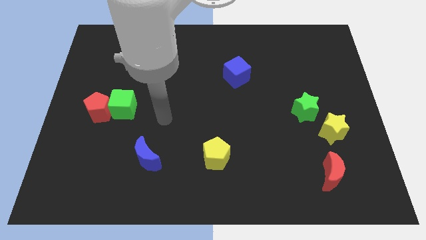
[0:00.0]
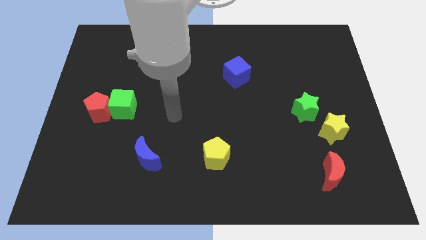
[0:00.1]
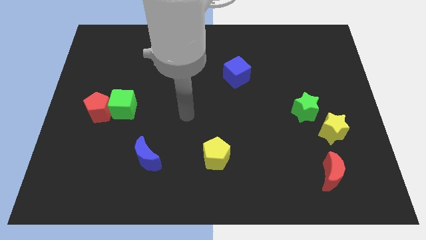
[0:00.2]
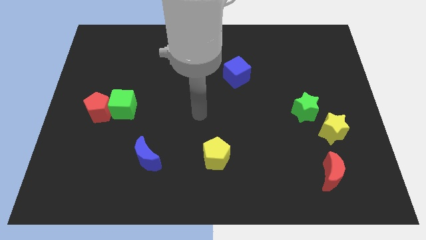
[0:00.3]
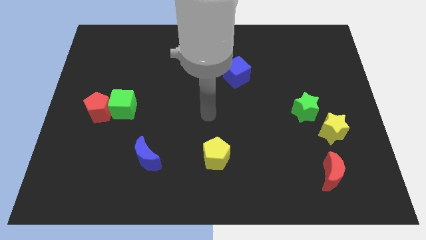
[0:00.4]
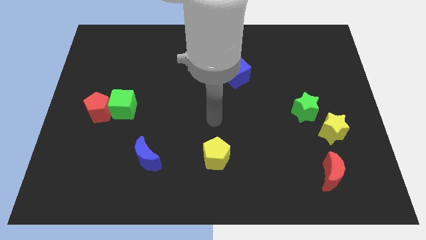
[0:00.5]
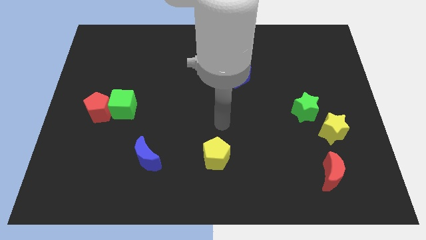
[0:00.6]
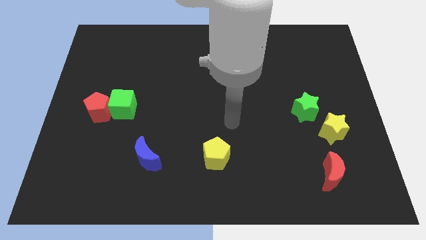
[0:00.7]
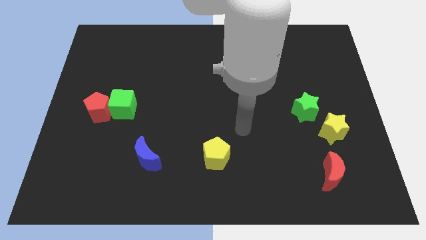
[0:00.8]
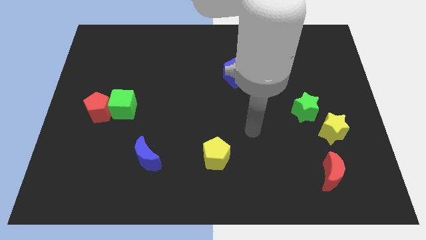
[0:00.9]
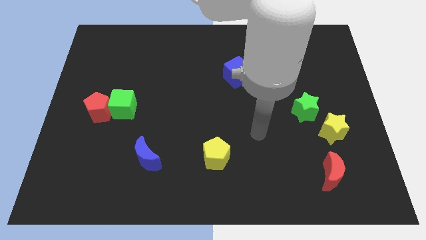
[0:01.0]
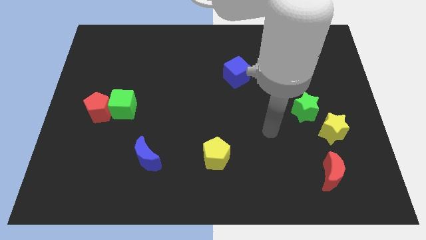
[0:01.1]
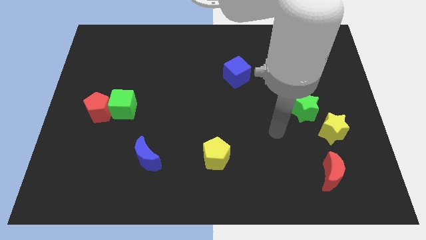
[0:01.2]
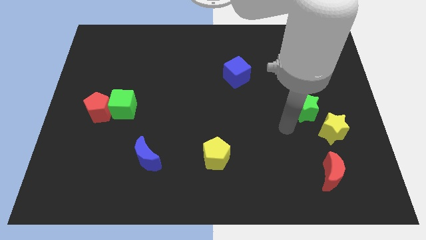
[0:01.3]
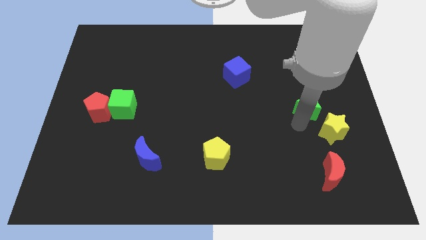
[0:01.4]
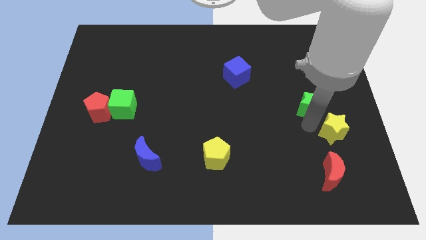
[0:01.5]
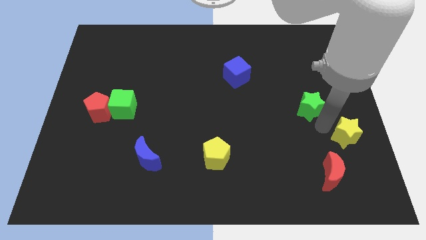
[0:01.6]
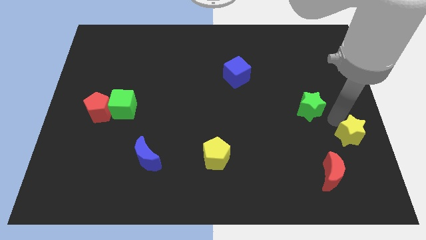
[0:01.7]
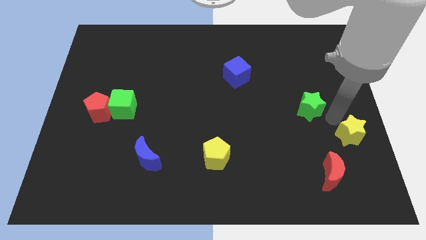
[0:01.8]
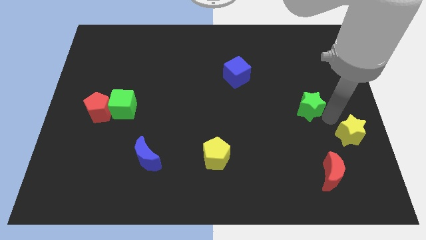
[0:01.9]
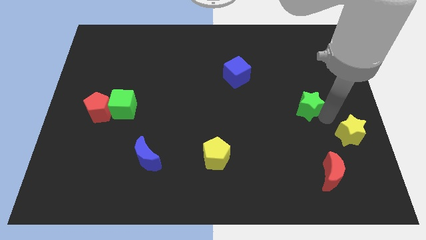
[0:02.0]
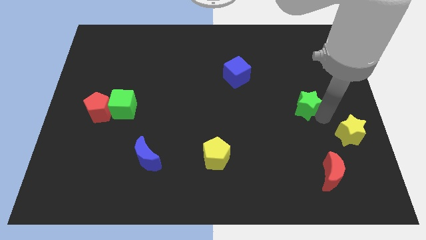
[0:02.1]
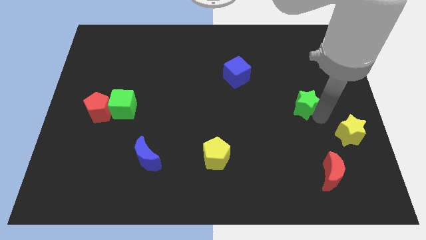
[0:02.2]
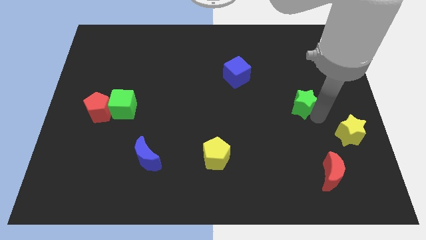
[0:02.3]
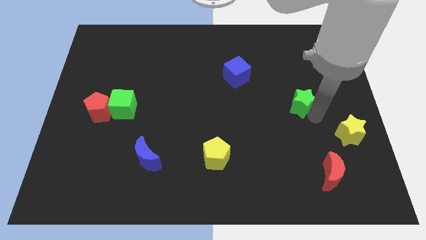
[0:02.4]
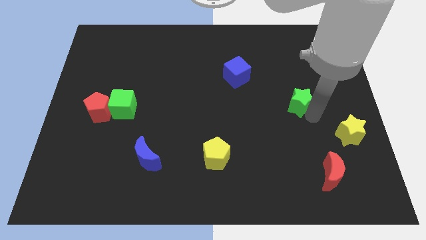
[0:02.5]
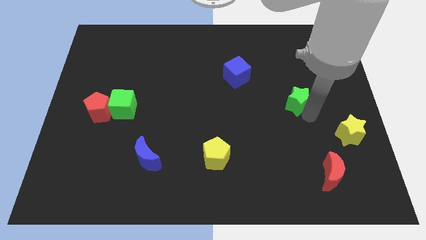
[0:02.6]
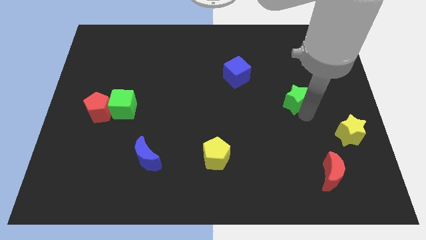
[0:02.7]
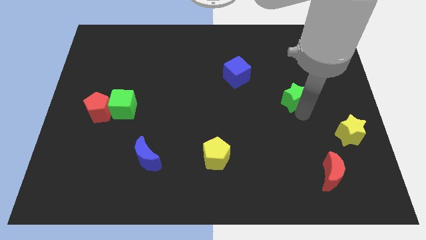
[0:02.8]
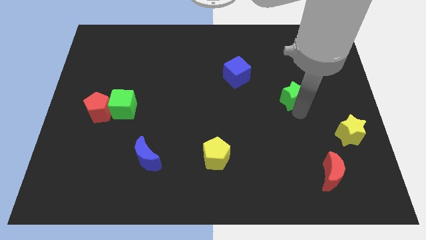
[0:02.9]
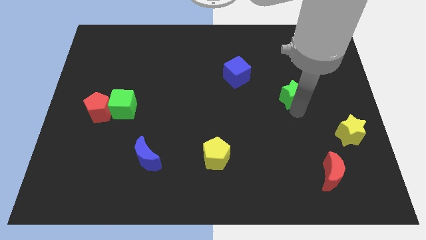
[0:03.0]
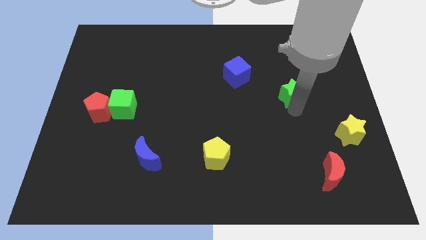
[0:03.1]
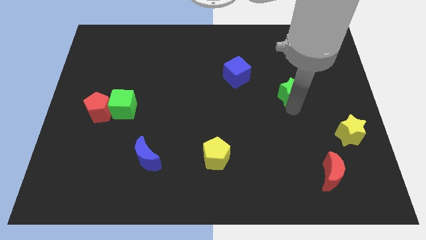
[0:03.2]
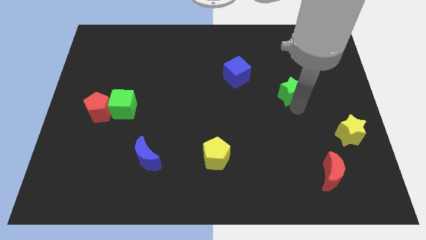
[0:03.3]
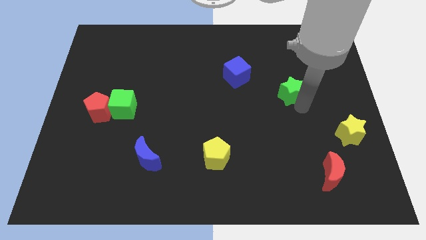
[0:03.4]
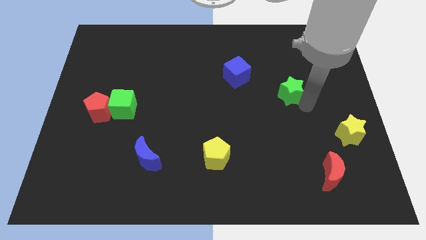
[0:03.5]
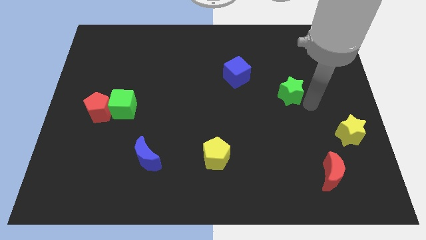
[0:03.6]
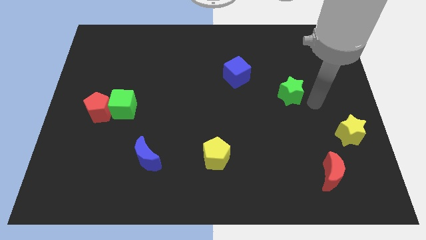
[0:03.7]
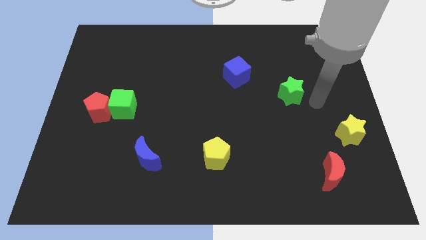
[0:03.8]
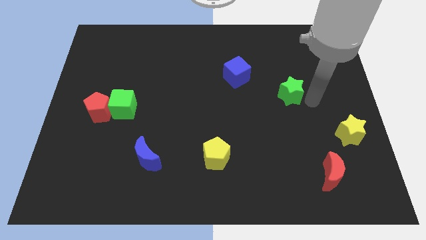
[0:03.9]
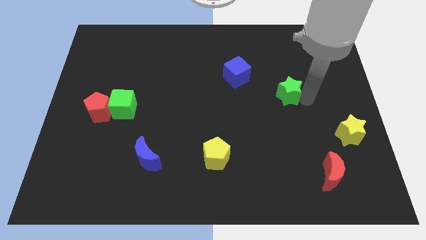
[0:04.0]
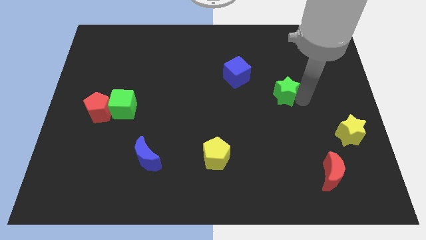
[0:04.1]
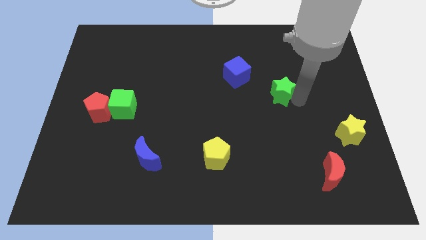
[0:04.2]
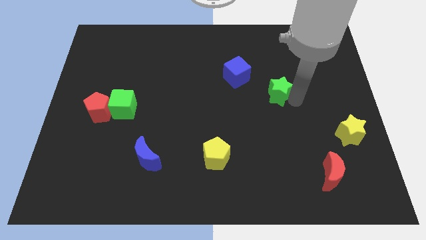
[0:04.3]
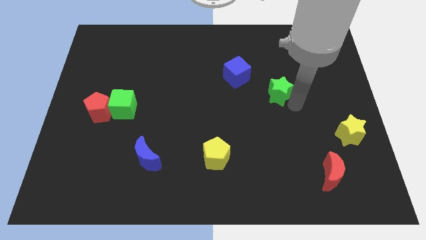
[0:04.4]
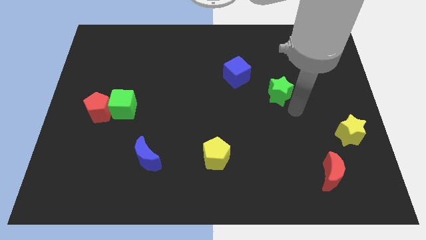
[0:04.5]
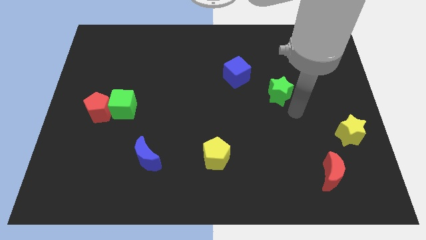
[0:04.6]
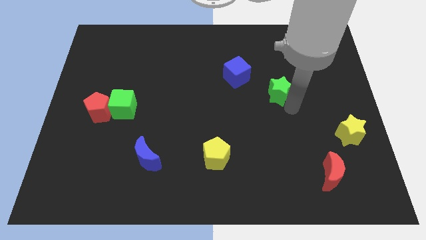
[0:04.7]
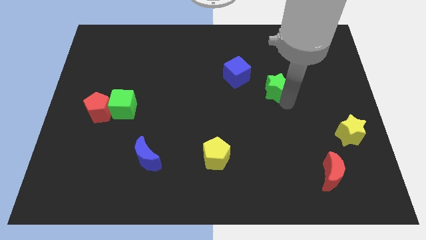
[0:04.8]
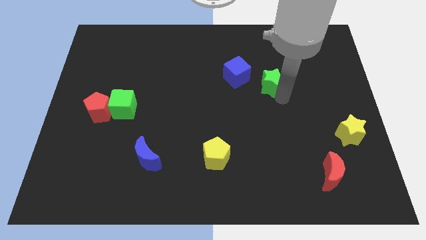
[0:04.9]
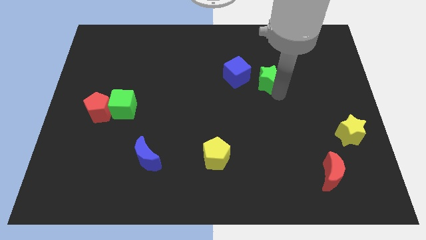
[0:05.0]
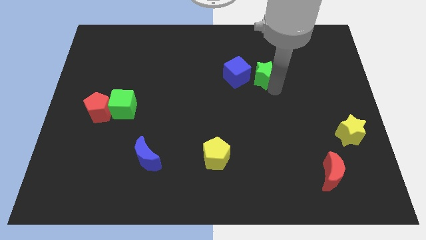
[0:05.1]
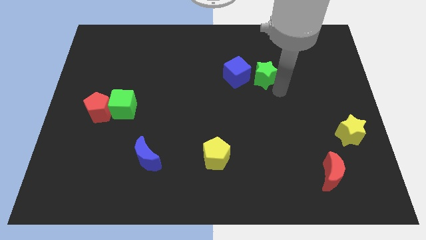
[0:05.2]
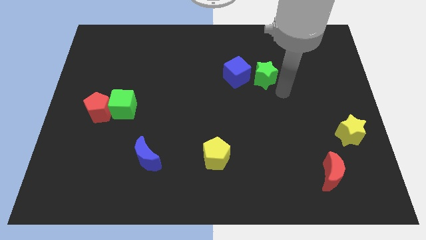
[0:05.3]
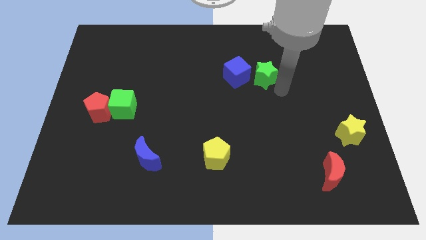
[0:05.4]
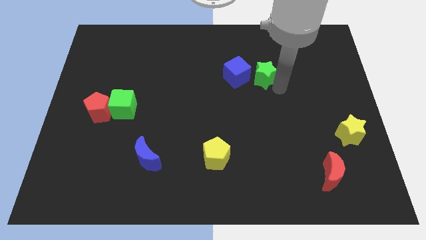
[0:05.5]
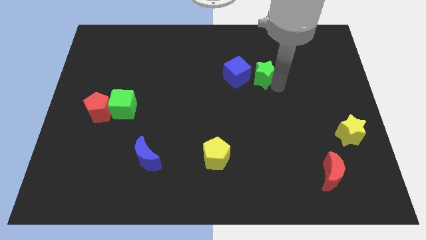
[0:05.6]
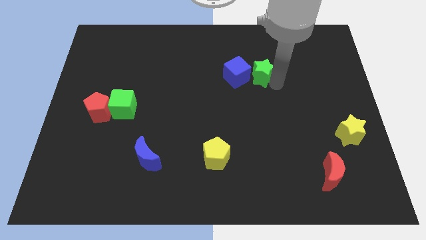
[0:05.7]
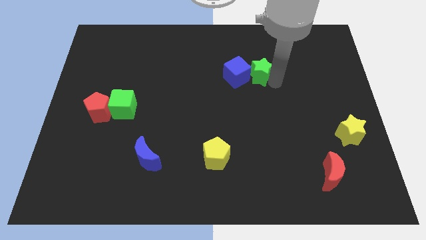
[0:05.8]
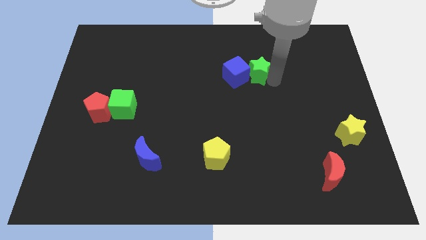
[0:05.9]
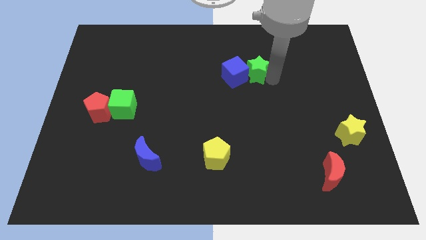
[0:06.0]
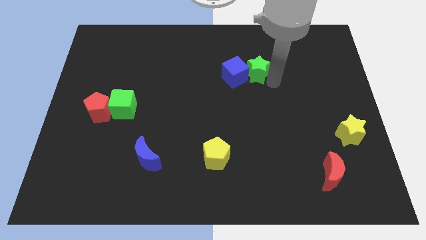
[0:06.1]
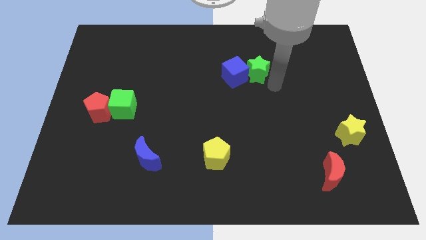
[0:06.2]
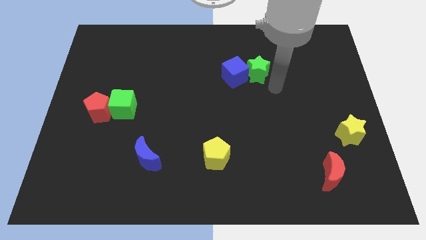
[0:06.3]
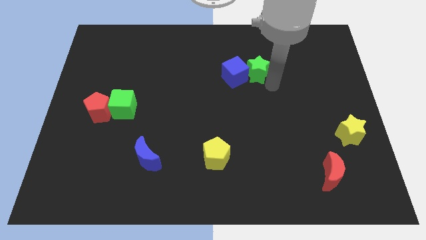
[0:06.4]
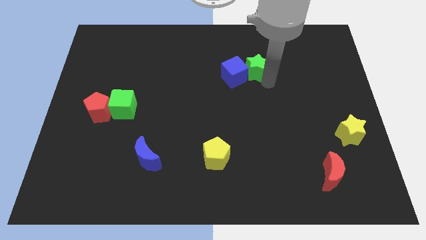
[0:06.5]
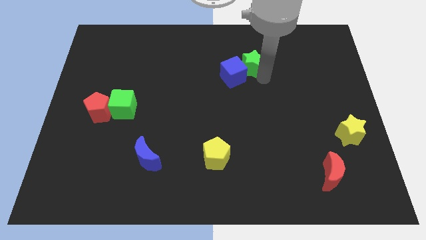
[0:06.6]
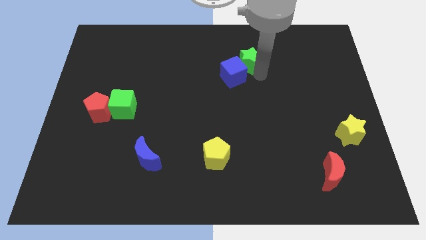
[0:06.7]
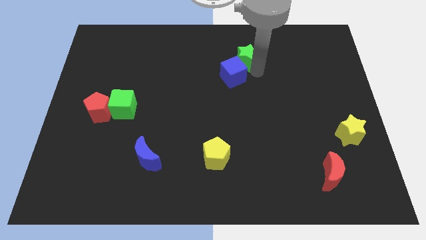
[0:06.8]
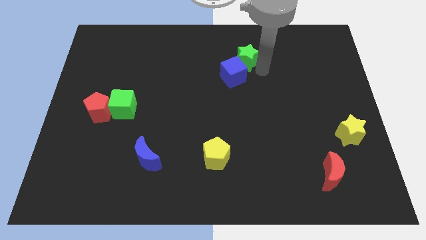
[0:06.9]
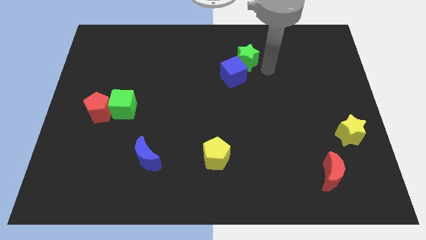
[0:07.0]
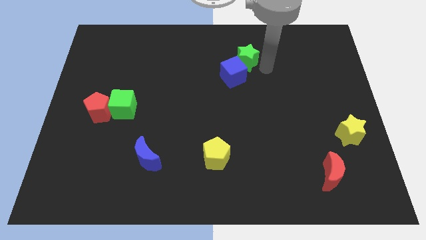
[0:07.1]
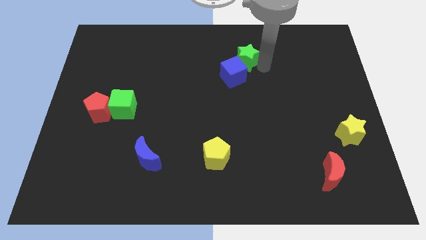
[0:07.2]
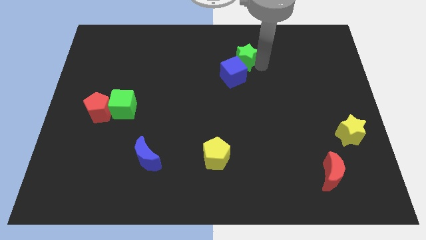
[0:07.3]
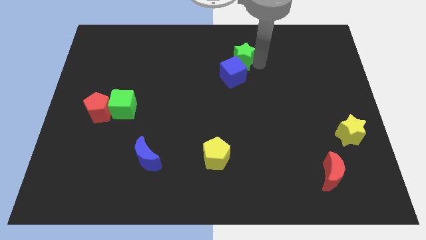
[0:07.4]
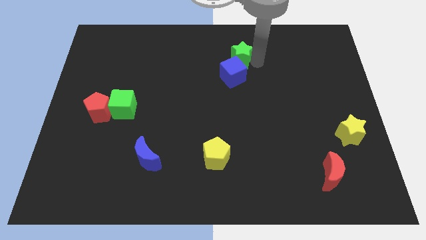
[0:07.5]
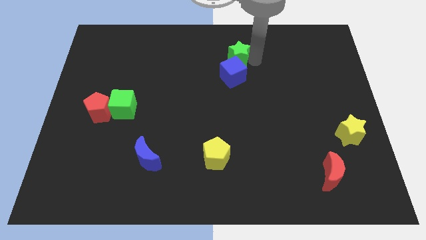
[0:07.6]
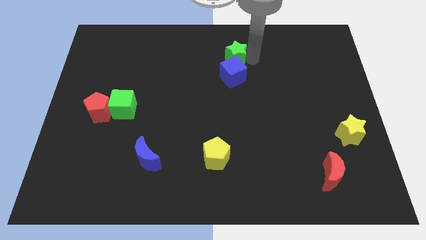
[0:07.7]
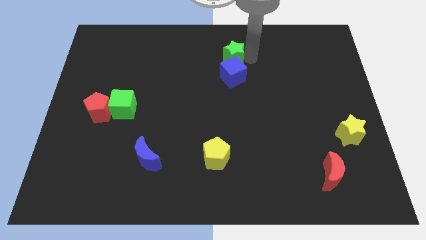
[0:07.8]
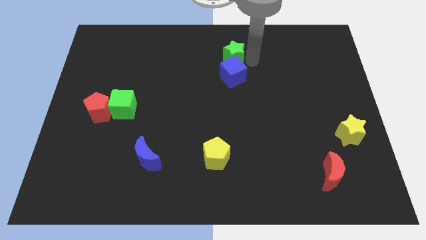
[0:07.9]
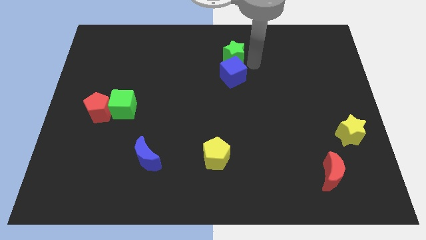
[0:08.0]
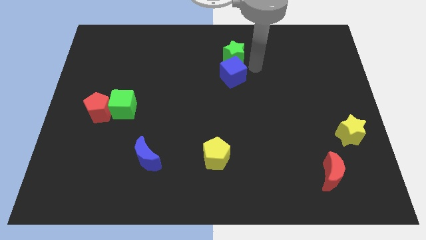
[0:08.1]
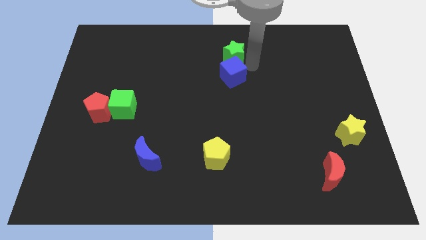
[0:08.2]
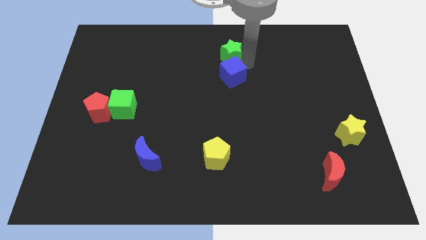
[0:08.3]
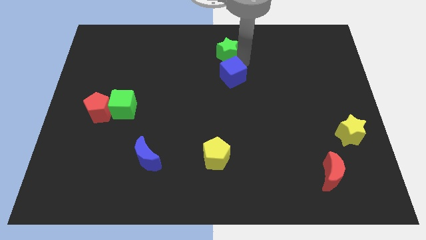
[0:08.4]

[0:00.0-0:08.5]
put the green star to the towards your base
